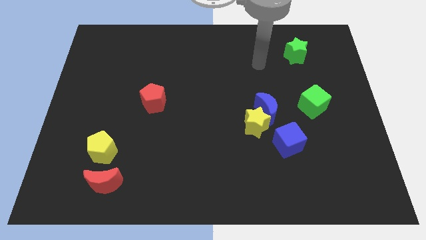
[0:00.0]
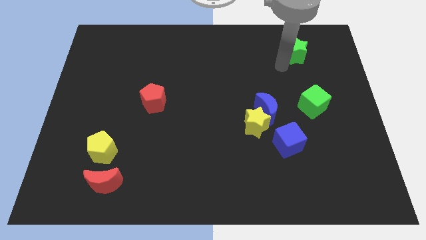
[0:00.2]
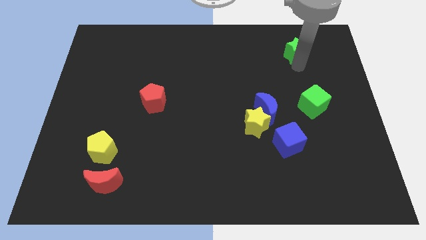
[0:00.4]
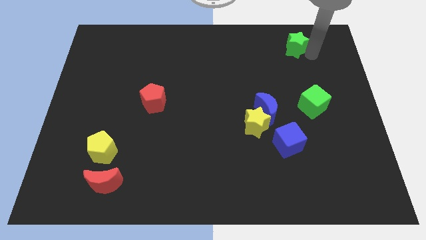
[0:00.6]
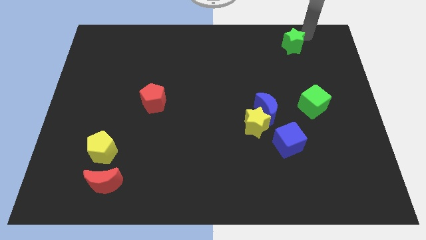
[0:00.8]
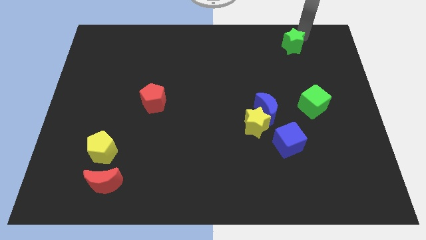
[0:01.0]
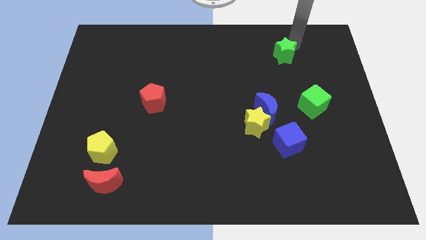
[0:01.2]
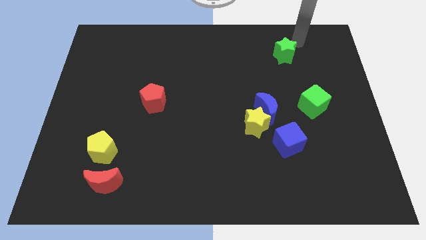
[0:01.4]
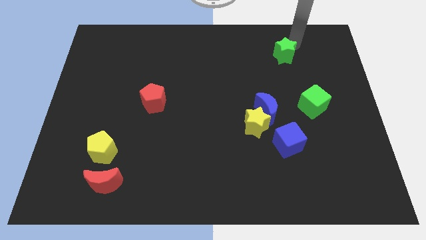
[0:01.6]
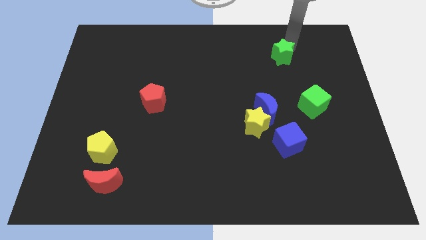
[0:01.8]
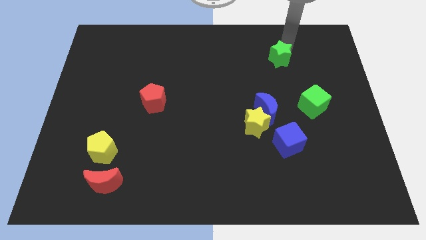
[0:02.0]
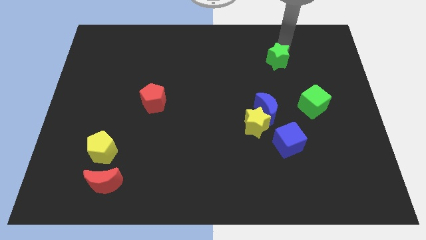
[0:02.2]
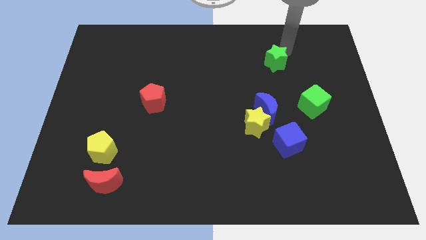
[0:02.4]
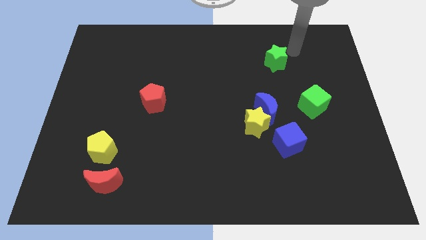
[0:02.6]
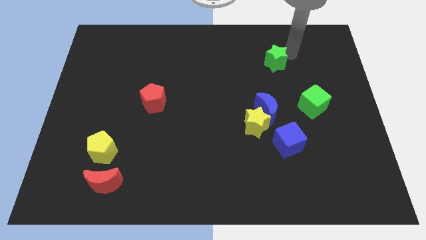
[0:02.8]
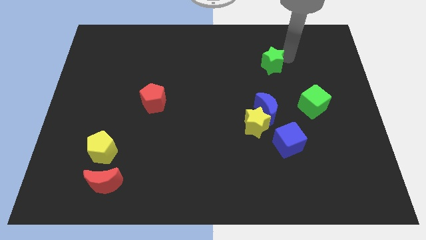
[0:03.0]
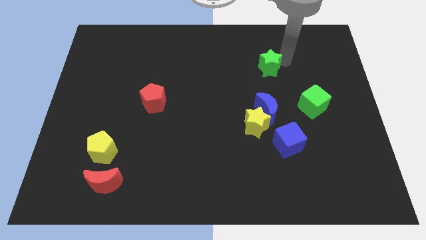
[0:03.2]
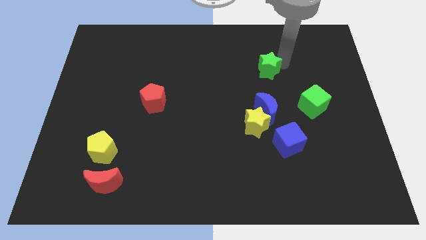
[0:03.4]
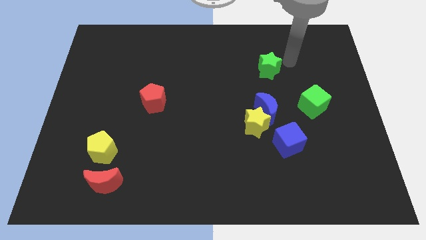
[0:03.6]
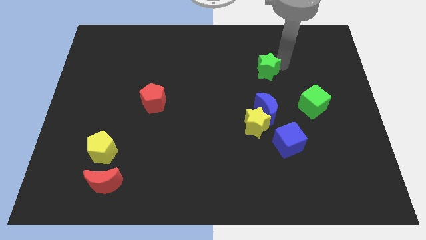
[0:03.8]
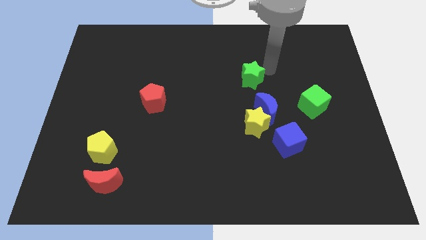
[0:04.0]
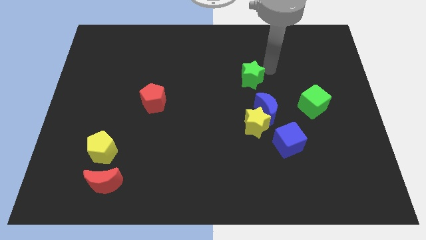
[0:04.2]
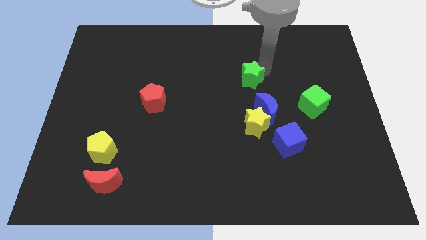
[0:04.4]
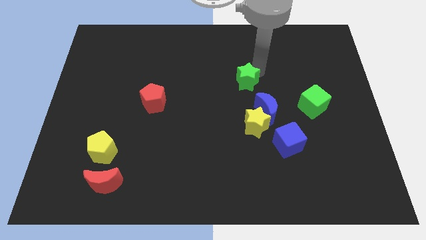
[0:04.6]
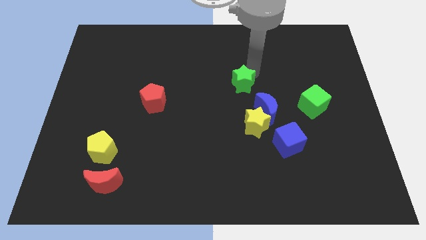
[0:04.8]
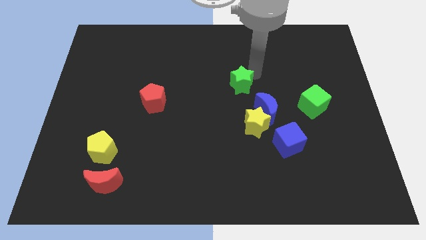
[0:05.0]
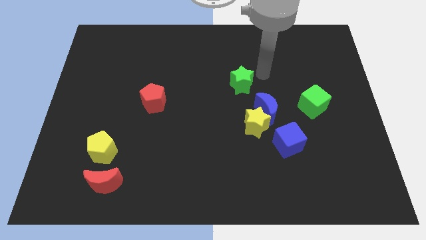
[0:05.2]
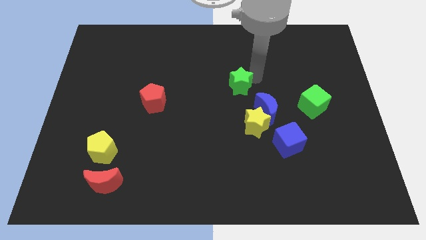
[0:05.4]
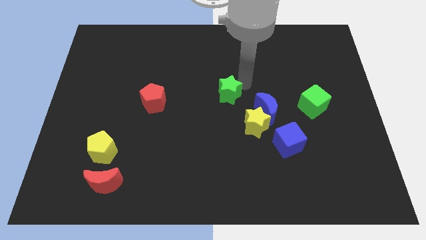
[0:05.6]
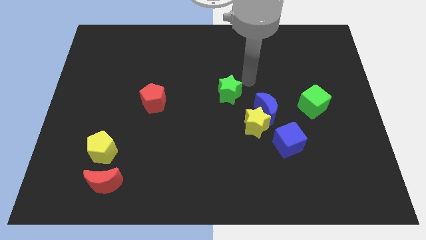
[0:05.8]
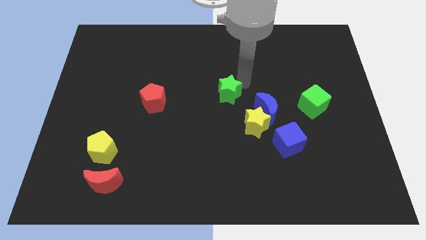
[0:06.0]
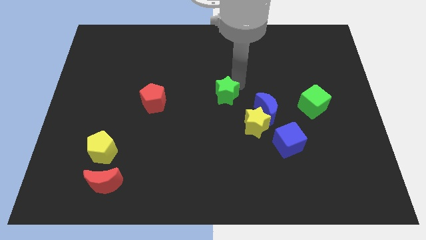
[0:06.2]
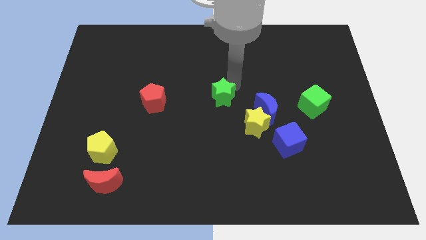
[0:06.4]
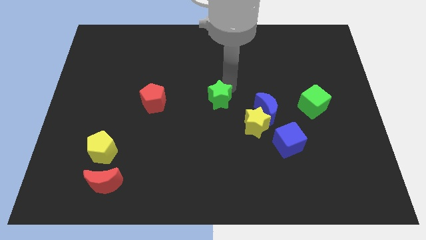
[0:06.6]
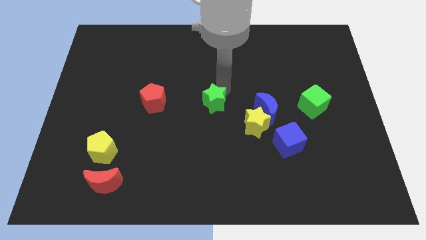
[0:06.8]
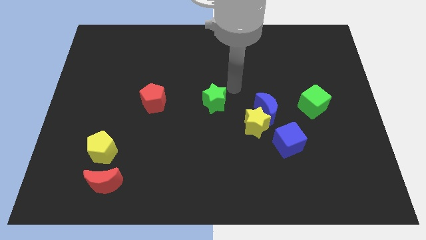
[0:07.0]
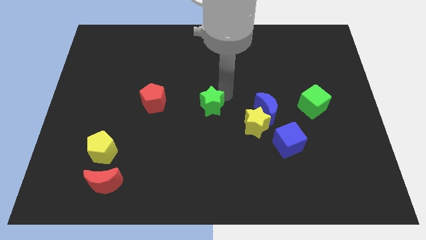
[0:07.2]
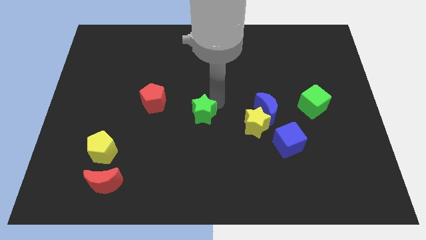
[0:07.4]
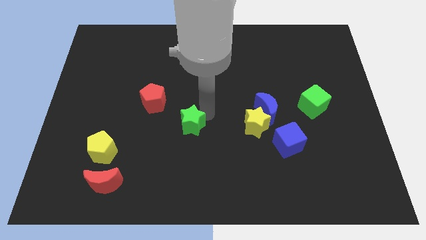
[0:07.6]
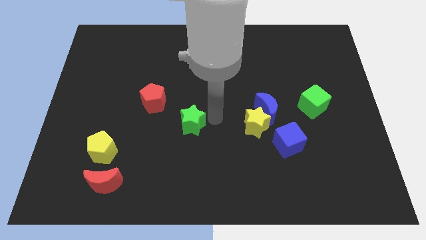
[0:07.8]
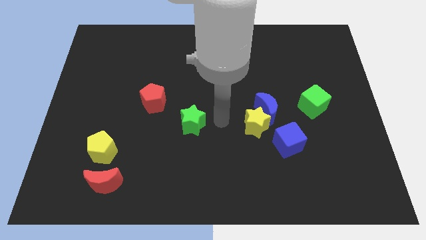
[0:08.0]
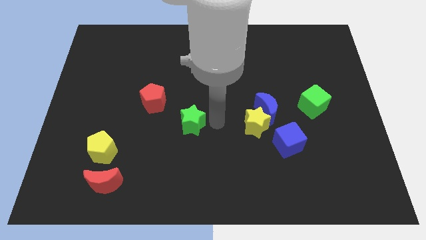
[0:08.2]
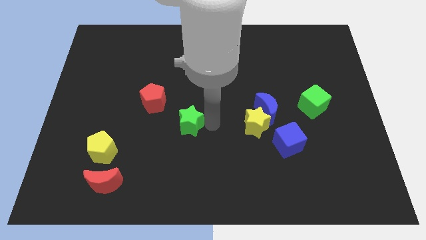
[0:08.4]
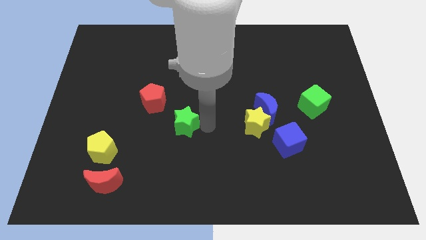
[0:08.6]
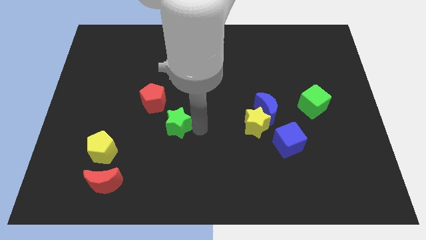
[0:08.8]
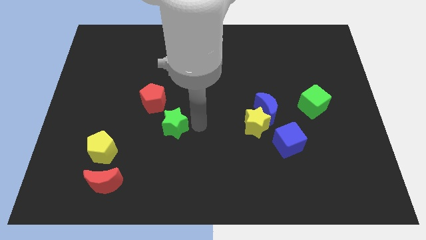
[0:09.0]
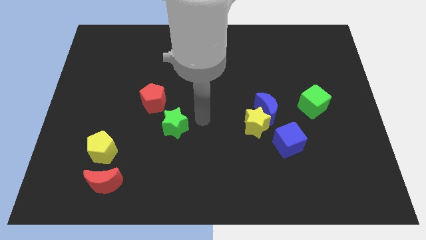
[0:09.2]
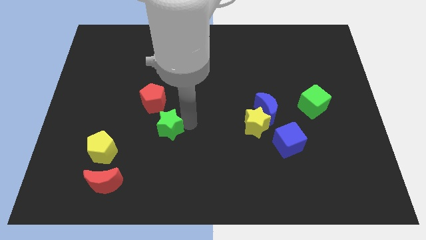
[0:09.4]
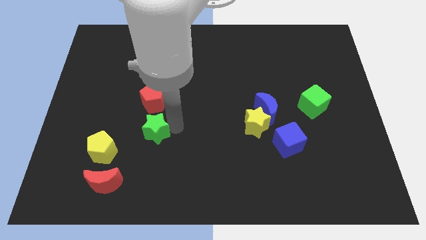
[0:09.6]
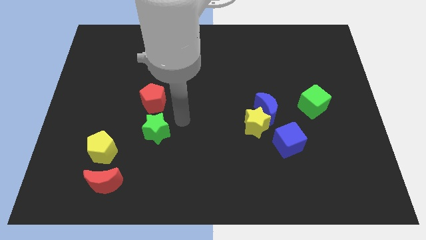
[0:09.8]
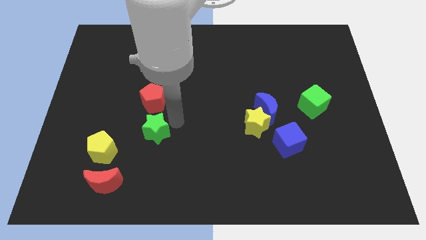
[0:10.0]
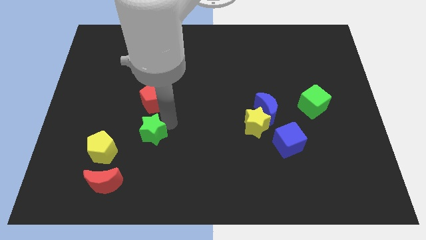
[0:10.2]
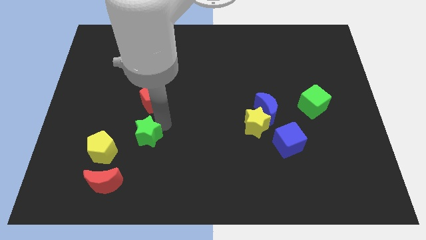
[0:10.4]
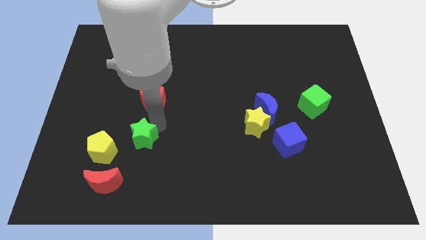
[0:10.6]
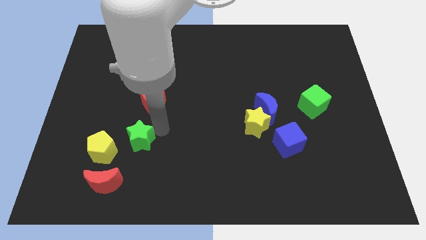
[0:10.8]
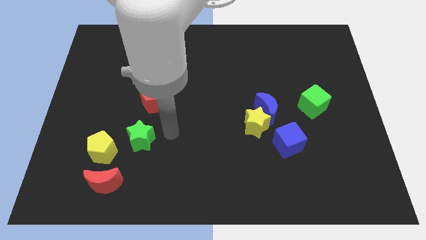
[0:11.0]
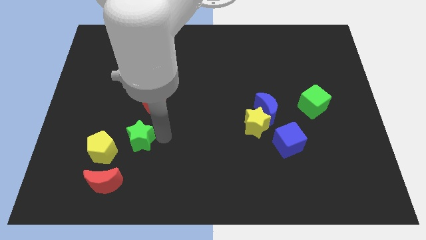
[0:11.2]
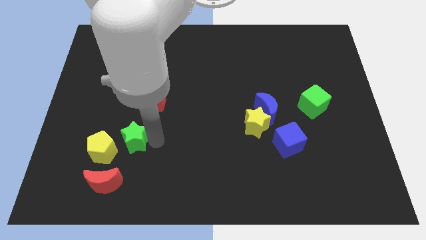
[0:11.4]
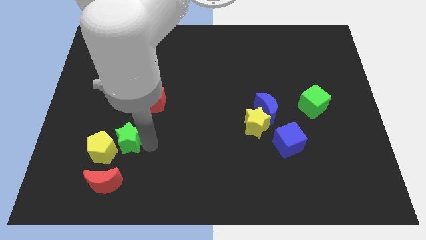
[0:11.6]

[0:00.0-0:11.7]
slide the green star next to the yellow pentagon

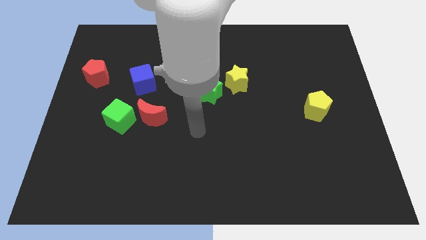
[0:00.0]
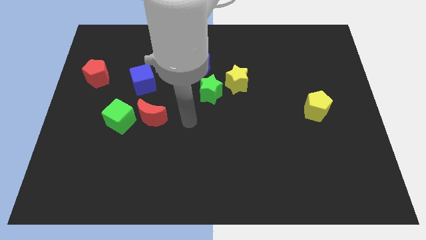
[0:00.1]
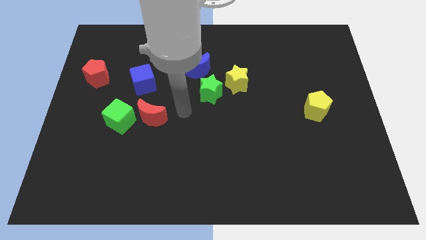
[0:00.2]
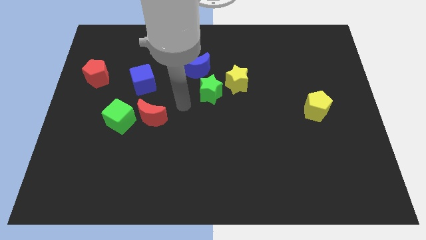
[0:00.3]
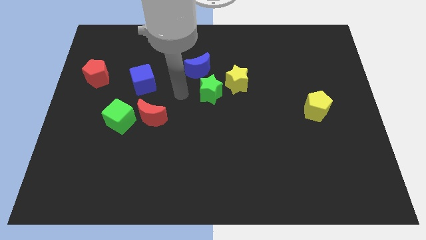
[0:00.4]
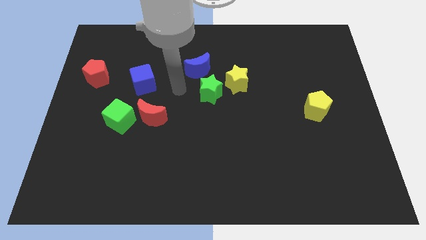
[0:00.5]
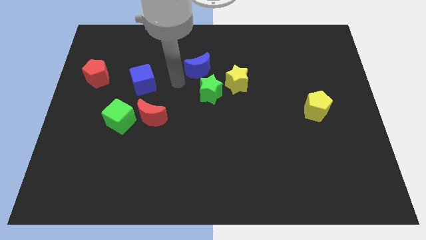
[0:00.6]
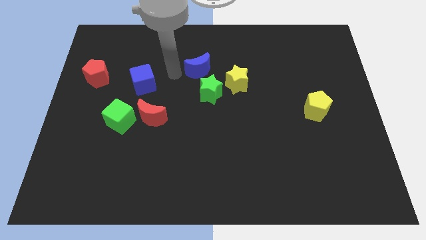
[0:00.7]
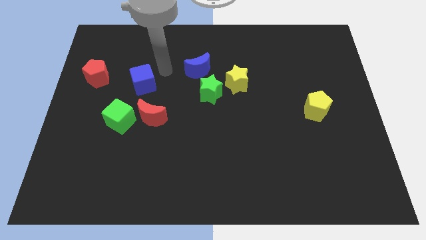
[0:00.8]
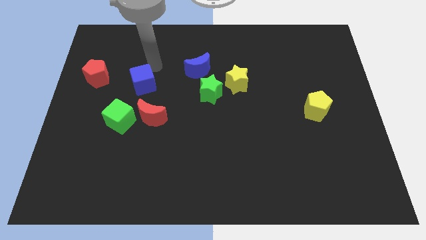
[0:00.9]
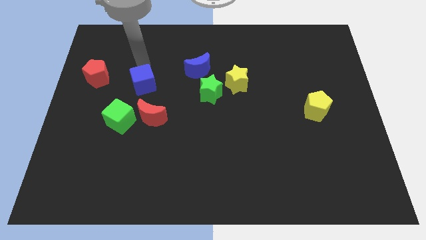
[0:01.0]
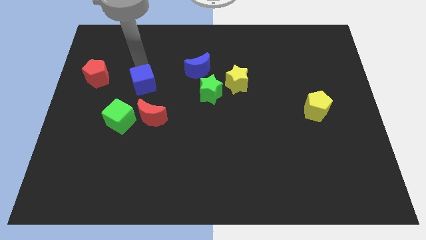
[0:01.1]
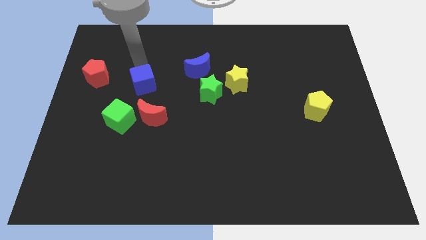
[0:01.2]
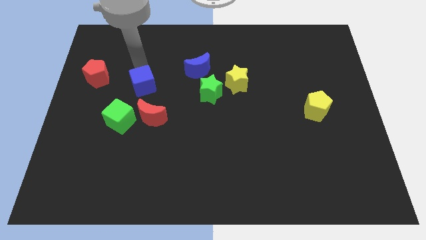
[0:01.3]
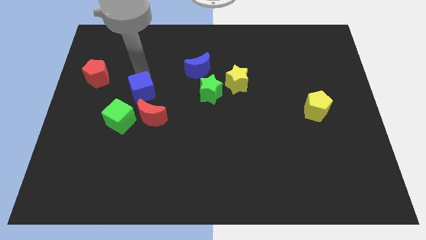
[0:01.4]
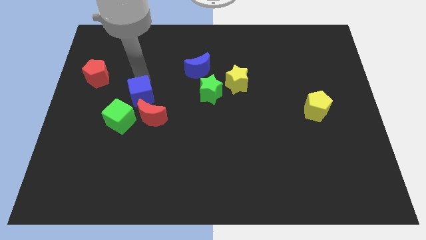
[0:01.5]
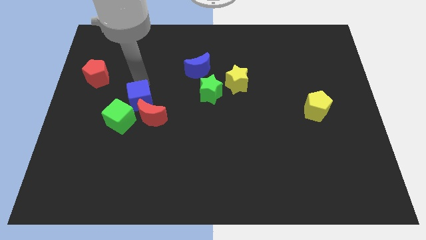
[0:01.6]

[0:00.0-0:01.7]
put the blue cube close to the red moon

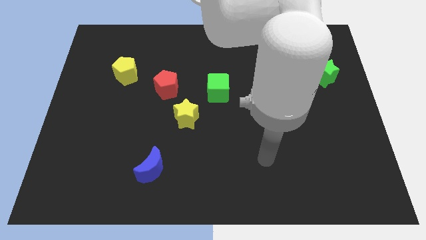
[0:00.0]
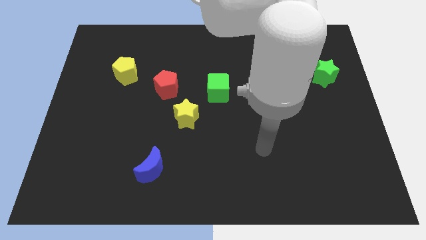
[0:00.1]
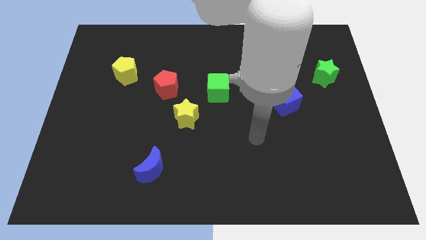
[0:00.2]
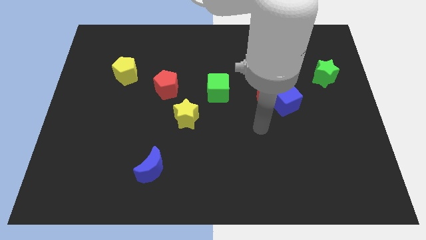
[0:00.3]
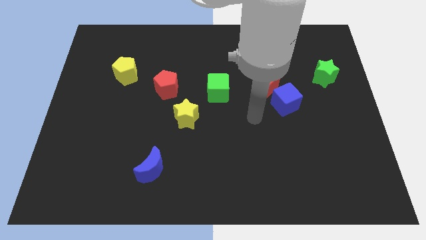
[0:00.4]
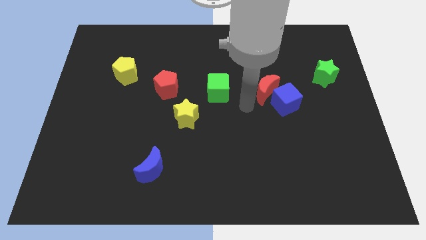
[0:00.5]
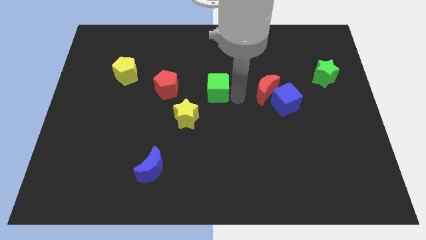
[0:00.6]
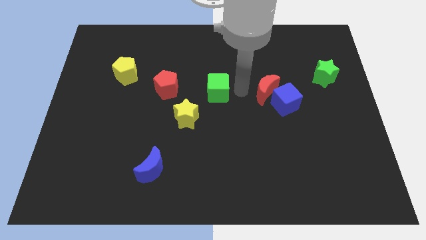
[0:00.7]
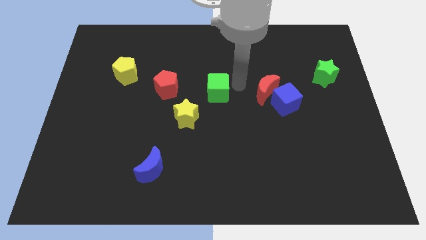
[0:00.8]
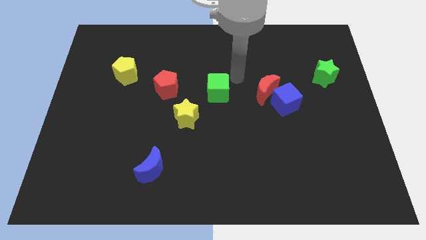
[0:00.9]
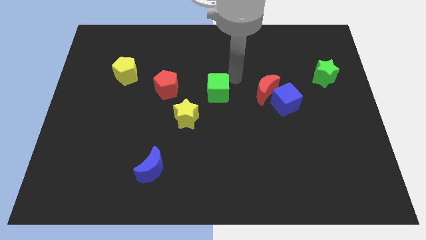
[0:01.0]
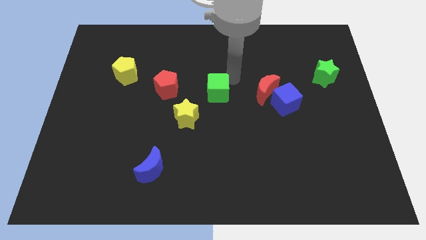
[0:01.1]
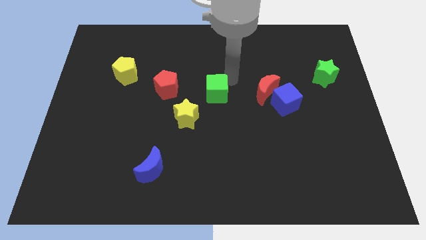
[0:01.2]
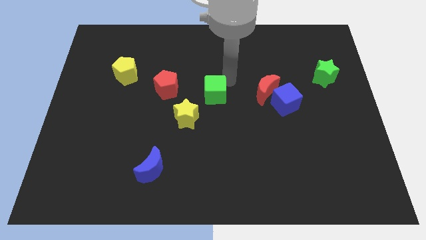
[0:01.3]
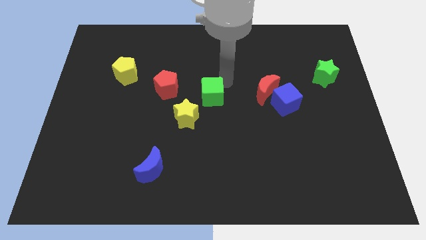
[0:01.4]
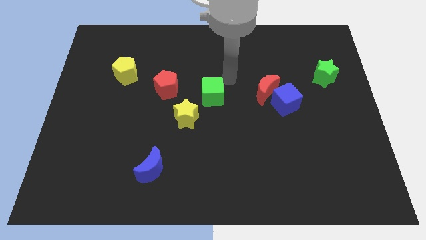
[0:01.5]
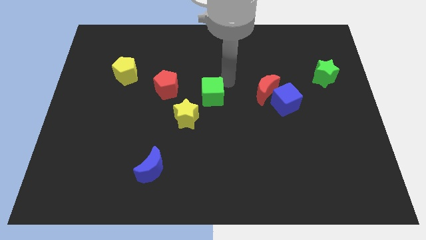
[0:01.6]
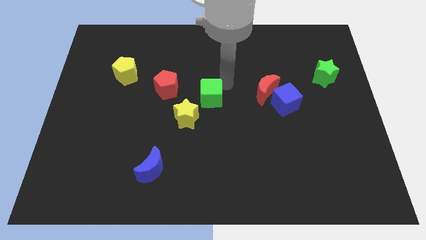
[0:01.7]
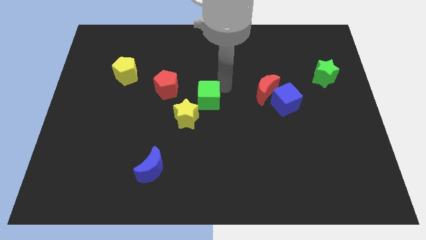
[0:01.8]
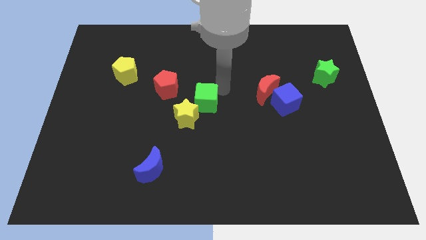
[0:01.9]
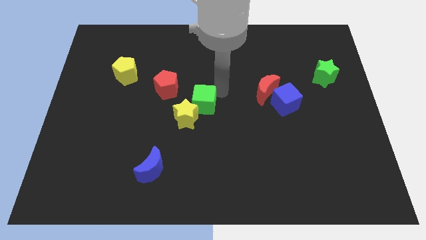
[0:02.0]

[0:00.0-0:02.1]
move the green cube to the yellow star
